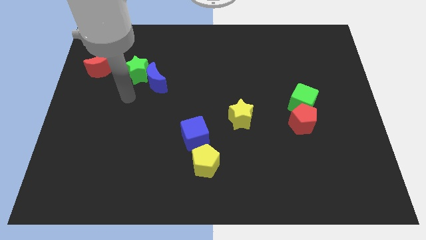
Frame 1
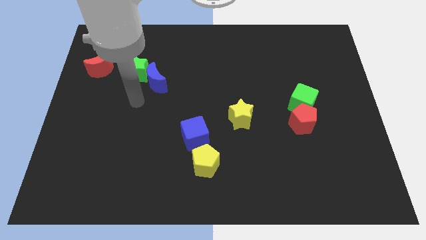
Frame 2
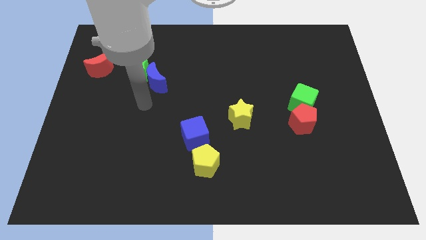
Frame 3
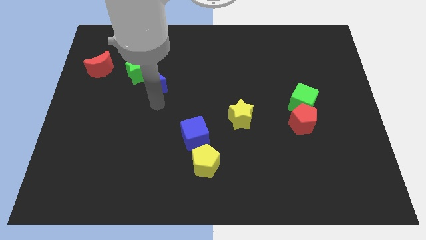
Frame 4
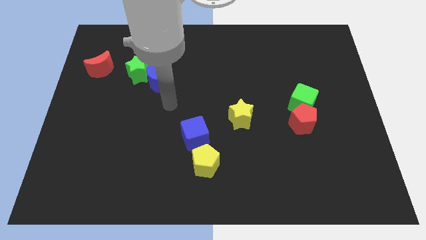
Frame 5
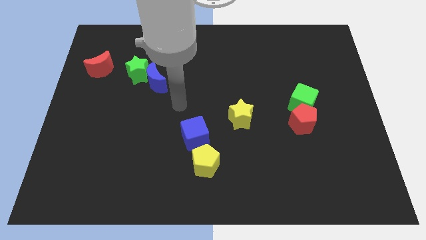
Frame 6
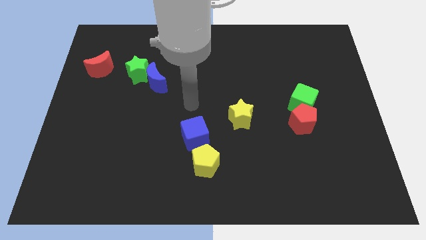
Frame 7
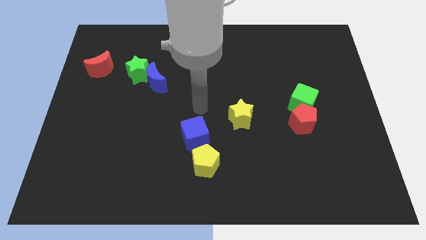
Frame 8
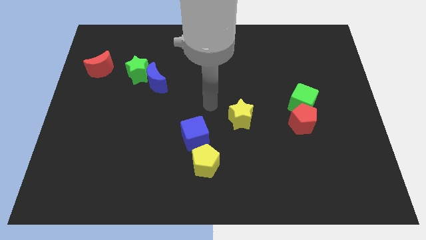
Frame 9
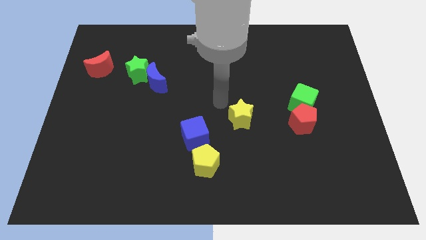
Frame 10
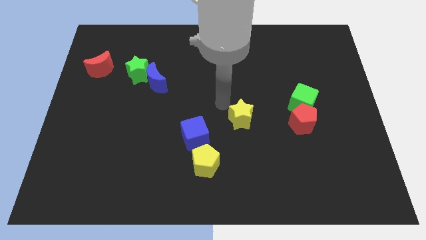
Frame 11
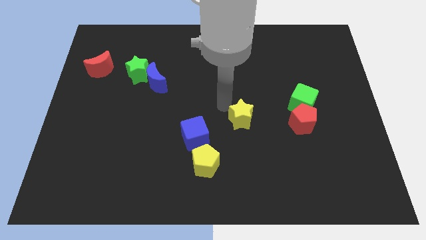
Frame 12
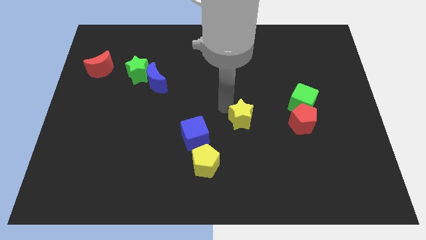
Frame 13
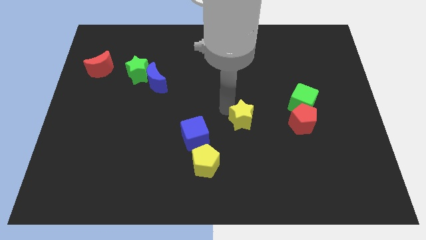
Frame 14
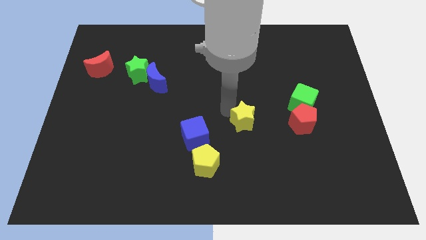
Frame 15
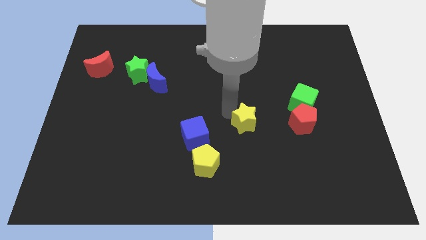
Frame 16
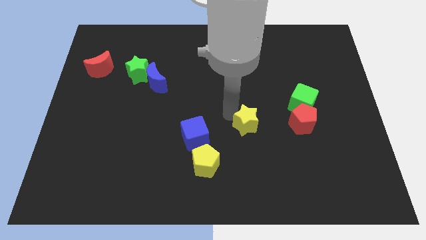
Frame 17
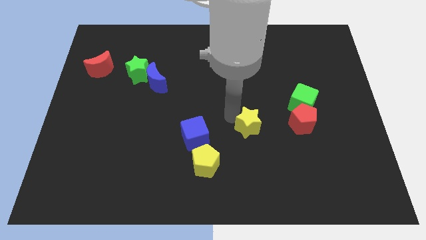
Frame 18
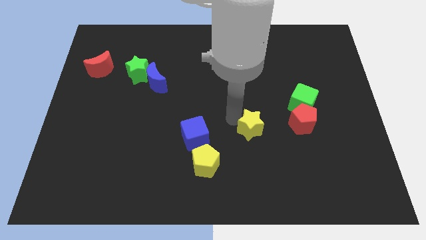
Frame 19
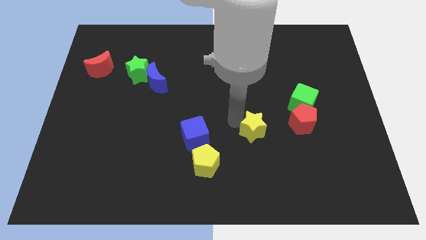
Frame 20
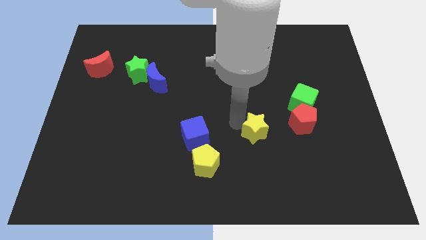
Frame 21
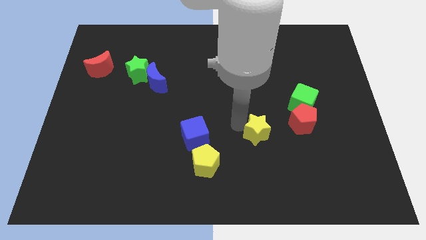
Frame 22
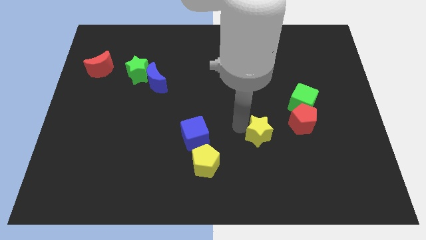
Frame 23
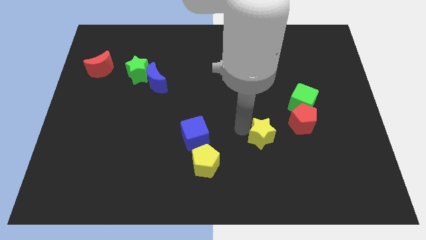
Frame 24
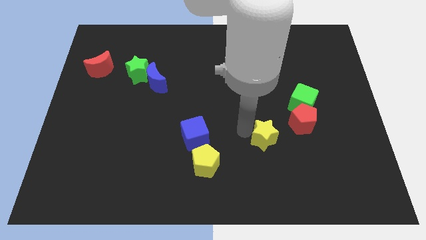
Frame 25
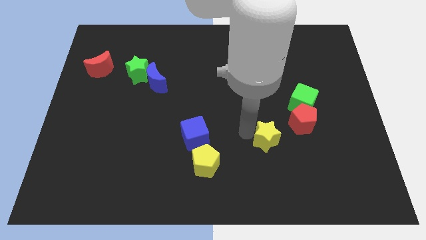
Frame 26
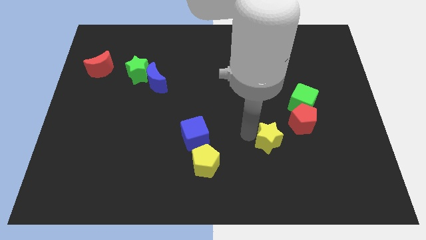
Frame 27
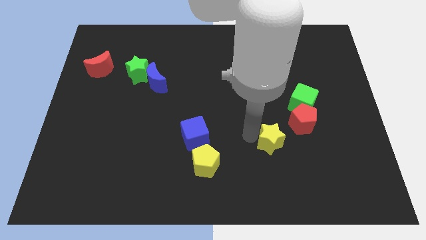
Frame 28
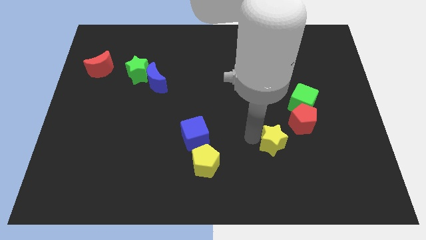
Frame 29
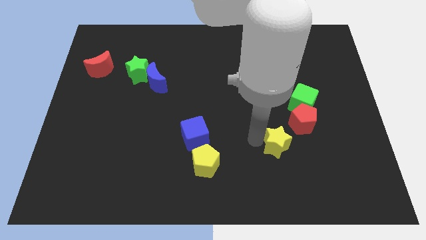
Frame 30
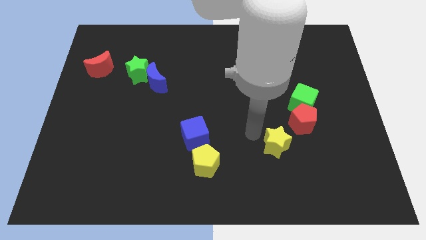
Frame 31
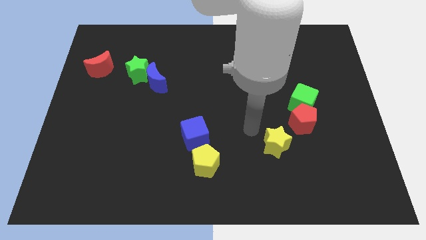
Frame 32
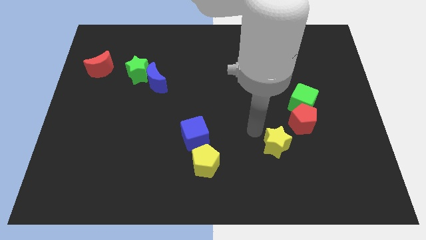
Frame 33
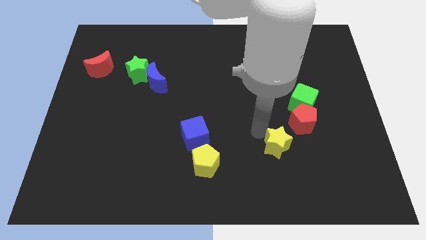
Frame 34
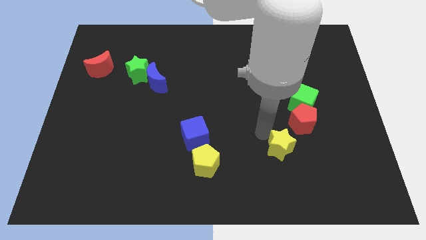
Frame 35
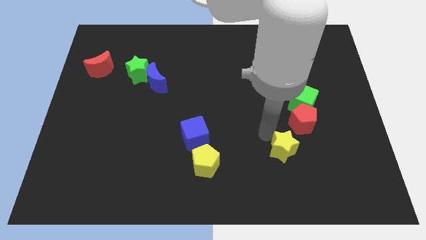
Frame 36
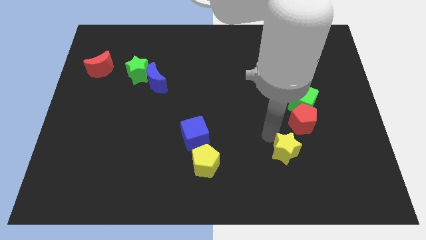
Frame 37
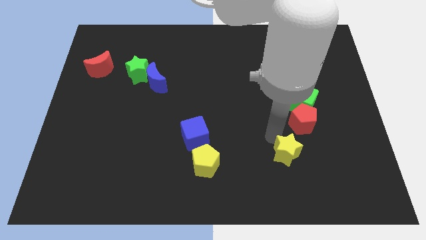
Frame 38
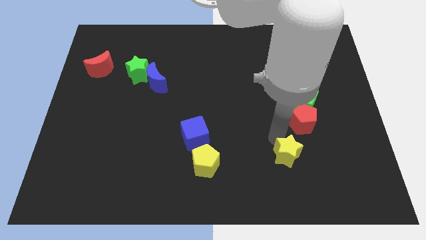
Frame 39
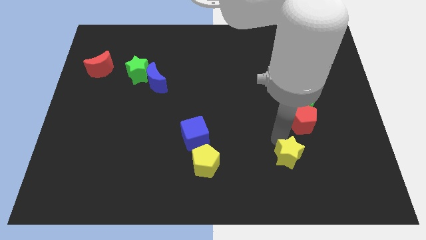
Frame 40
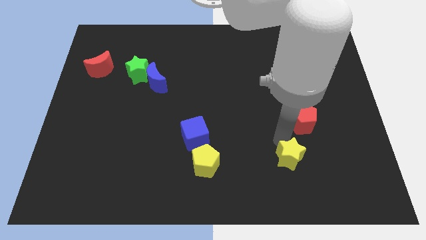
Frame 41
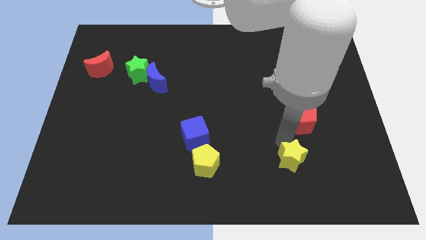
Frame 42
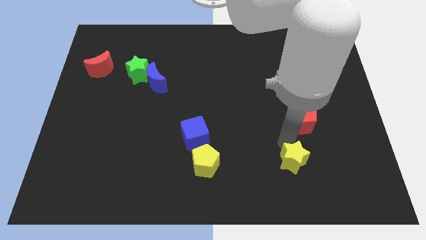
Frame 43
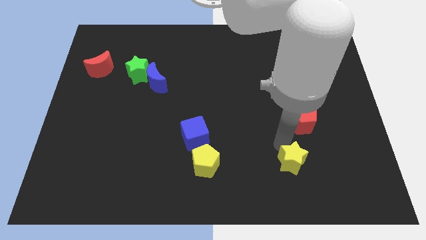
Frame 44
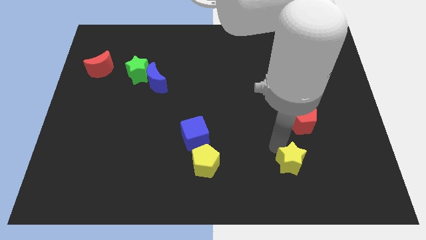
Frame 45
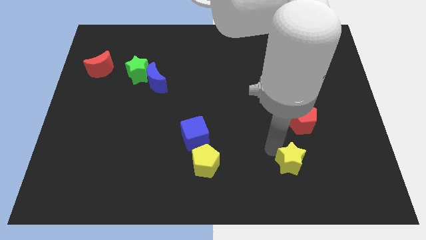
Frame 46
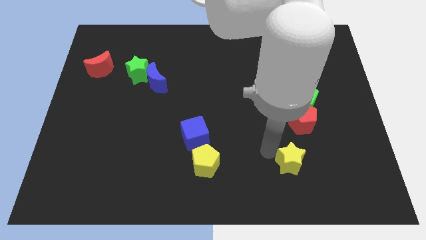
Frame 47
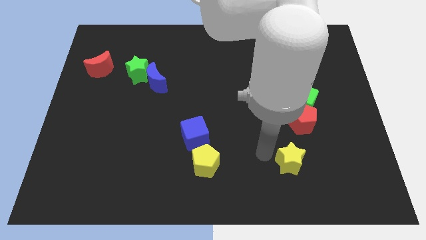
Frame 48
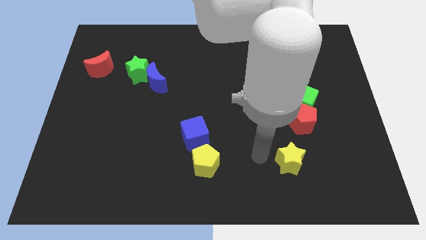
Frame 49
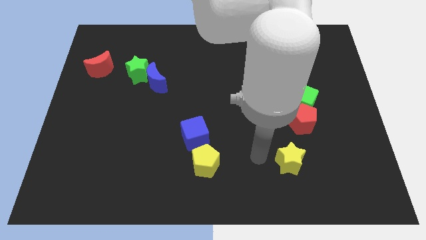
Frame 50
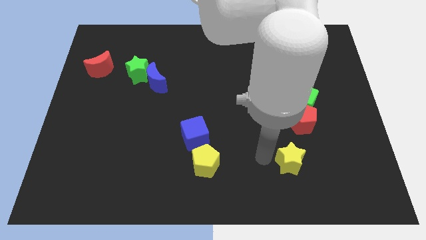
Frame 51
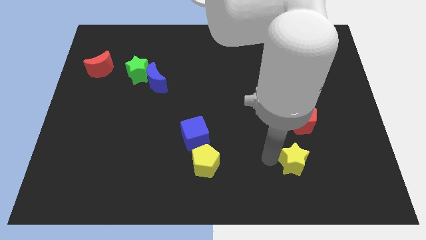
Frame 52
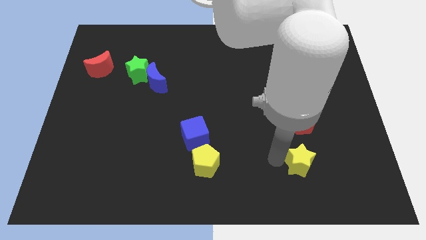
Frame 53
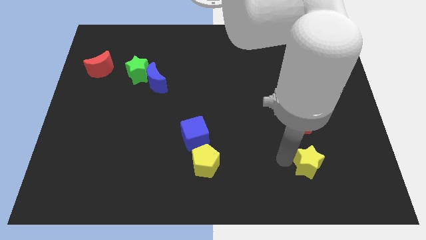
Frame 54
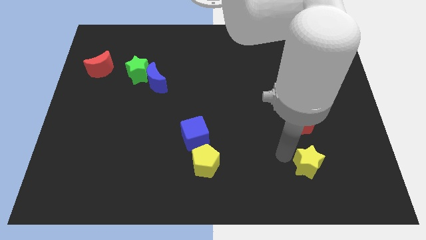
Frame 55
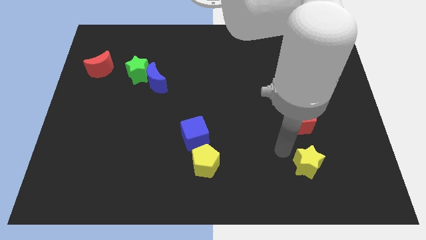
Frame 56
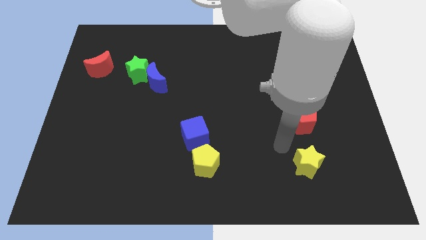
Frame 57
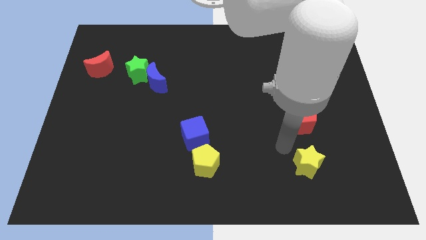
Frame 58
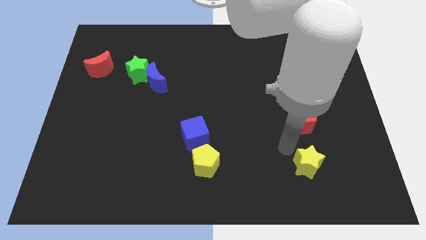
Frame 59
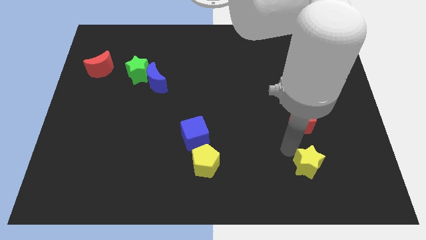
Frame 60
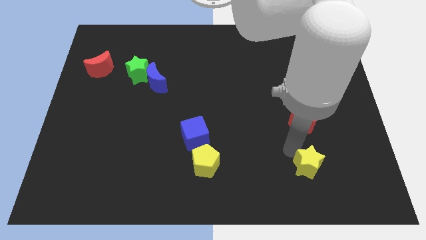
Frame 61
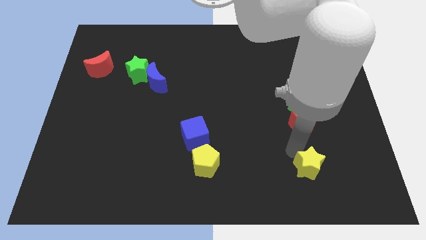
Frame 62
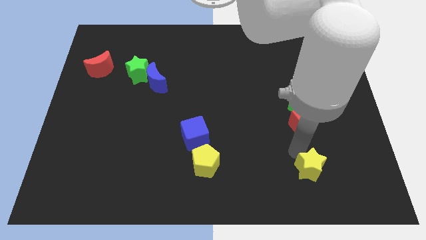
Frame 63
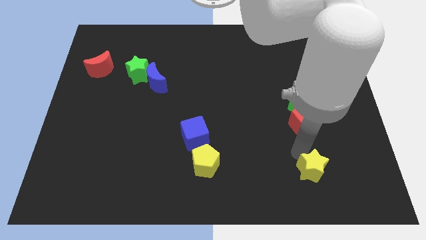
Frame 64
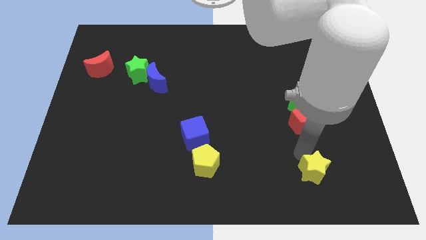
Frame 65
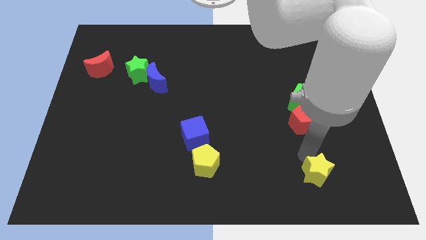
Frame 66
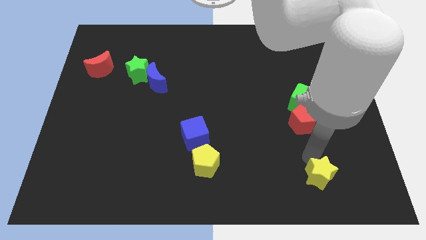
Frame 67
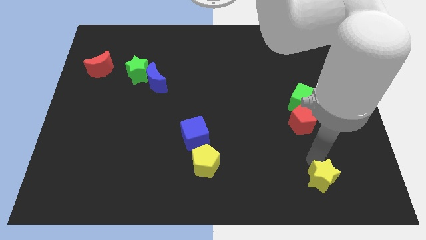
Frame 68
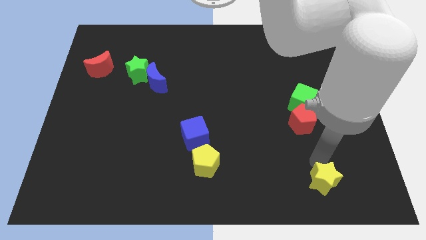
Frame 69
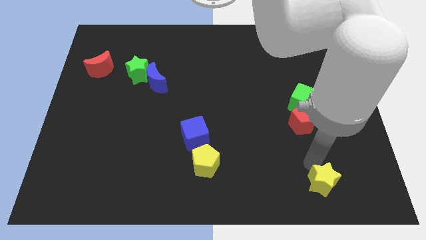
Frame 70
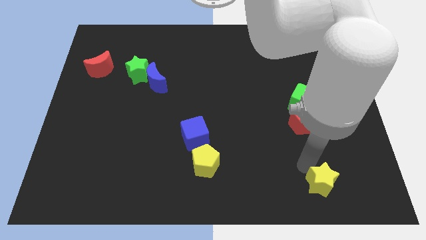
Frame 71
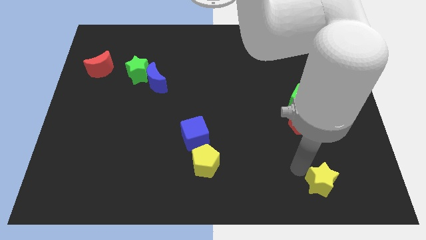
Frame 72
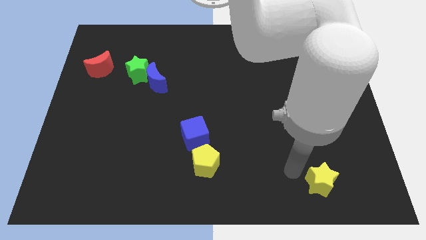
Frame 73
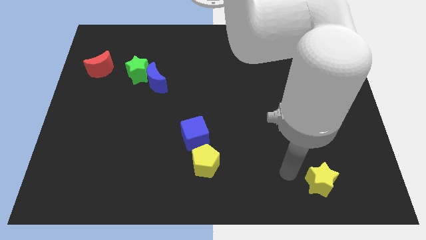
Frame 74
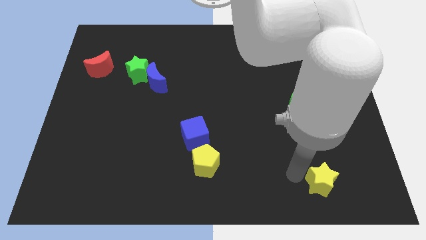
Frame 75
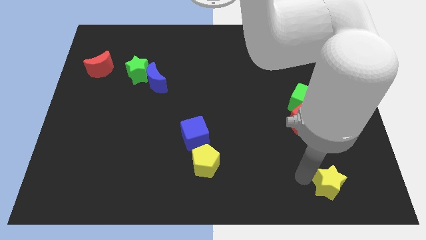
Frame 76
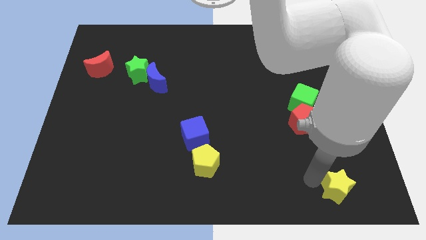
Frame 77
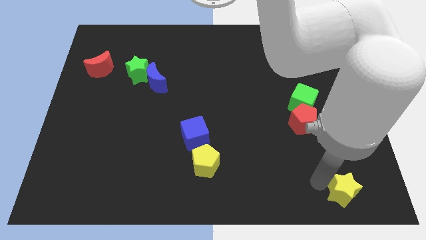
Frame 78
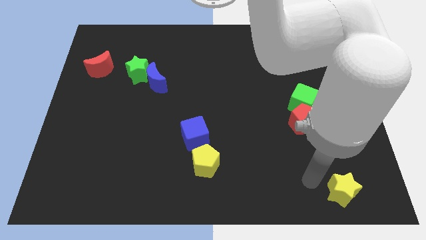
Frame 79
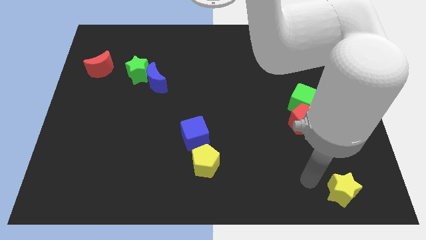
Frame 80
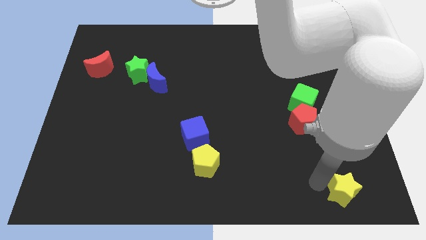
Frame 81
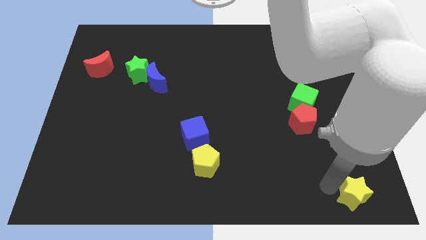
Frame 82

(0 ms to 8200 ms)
move the yellow star to the bottom right of the board
